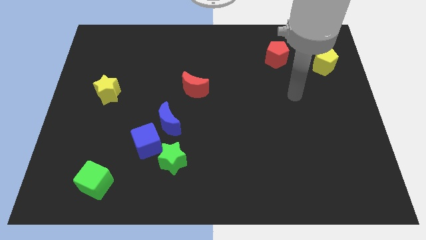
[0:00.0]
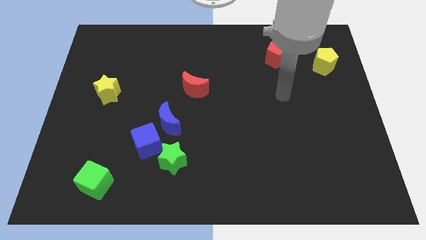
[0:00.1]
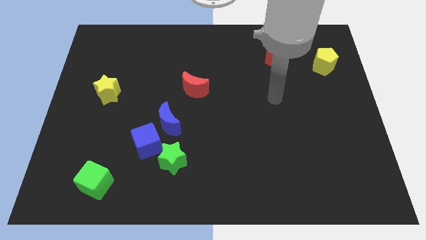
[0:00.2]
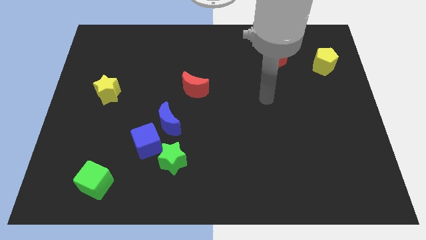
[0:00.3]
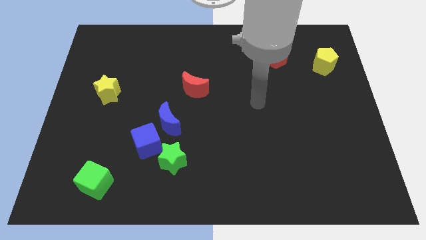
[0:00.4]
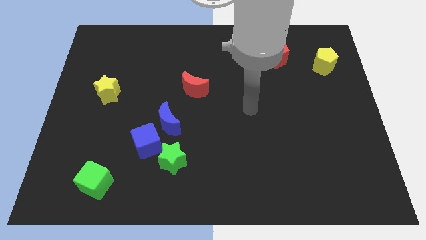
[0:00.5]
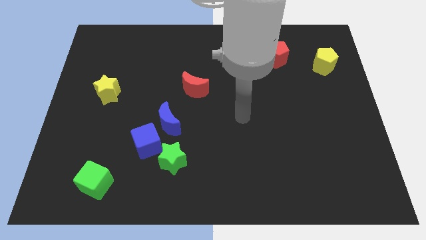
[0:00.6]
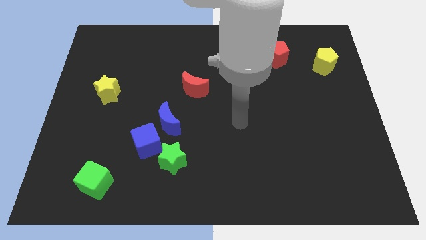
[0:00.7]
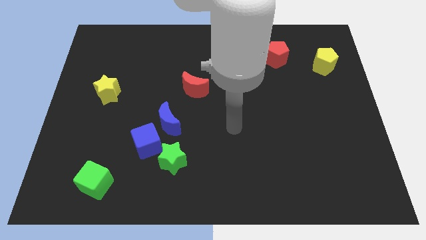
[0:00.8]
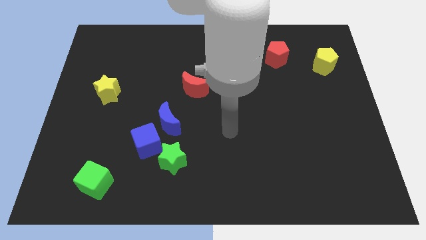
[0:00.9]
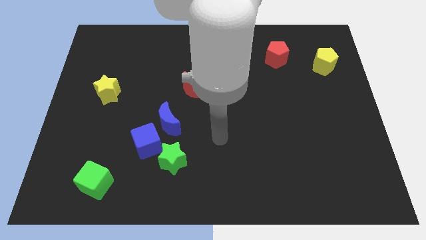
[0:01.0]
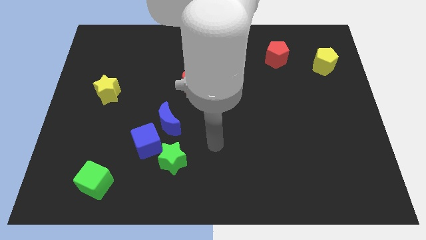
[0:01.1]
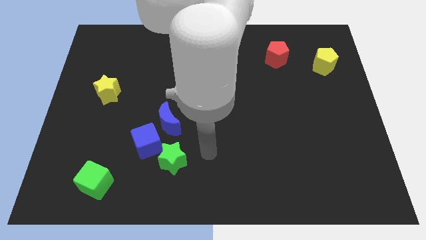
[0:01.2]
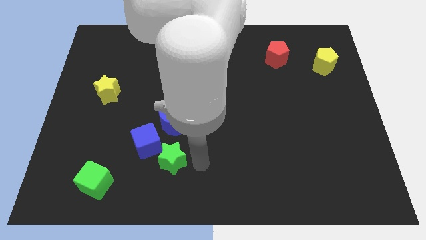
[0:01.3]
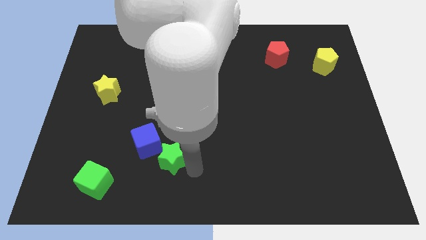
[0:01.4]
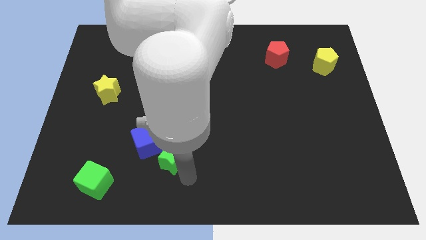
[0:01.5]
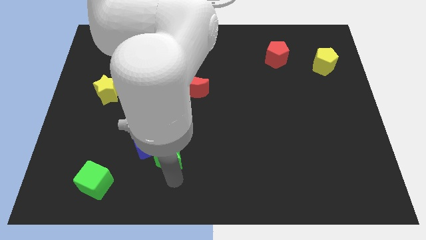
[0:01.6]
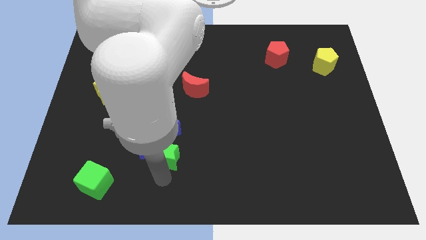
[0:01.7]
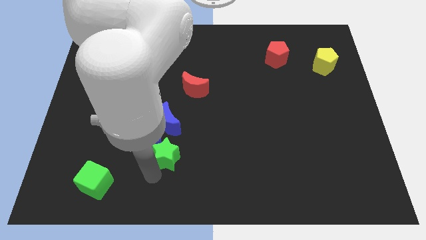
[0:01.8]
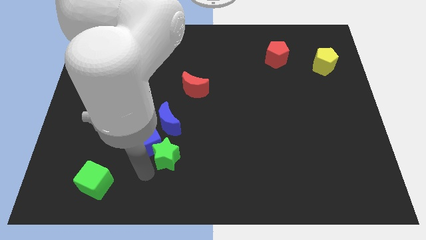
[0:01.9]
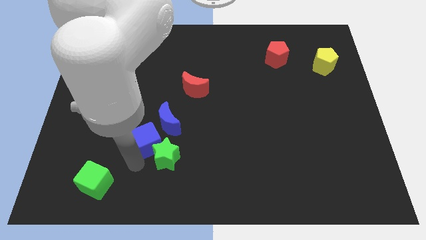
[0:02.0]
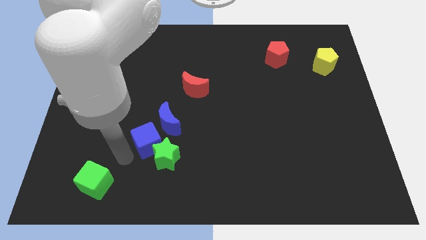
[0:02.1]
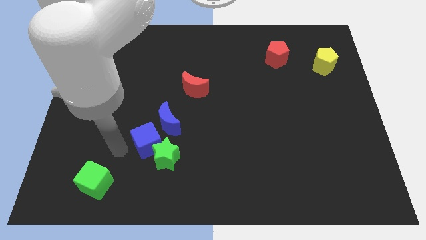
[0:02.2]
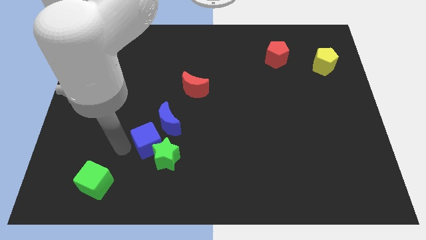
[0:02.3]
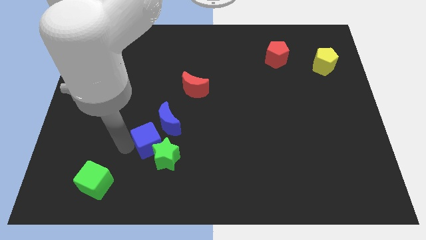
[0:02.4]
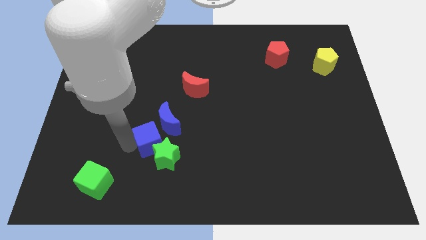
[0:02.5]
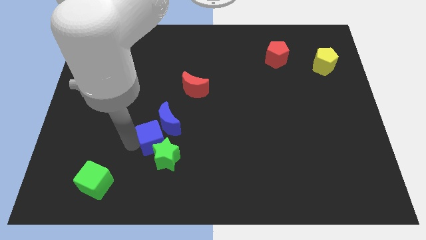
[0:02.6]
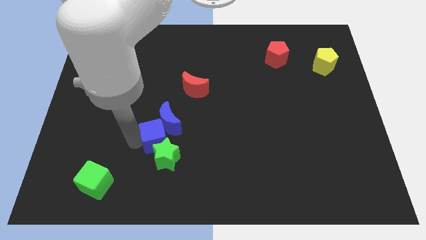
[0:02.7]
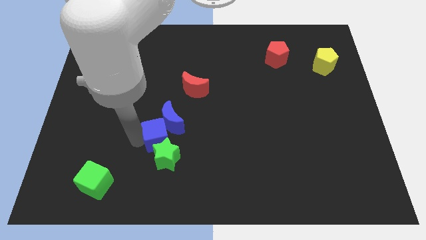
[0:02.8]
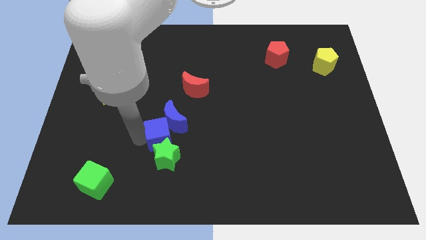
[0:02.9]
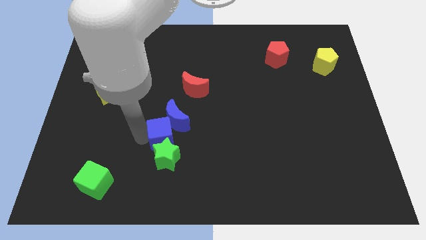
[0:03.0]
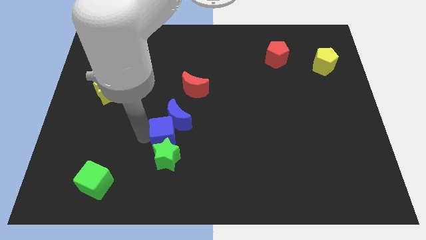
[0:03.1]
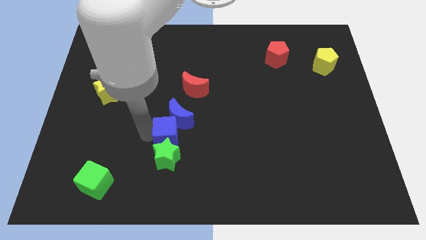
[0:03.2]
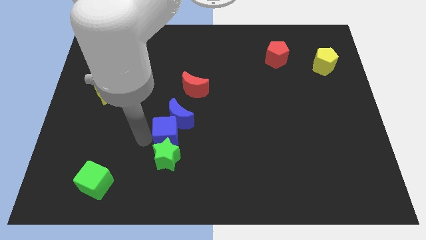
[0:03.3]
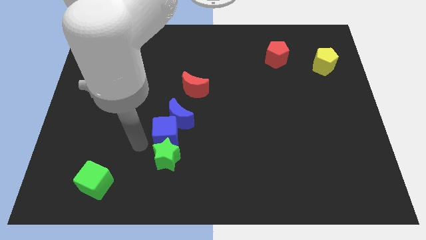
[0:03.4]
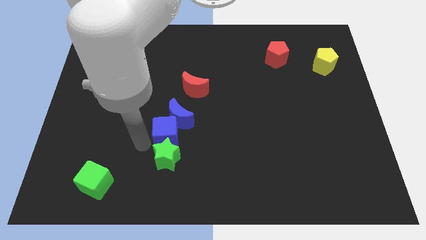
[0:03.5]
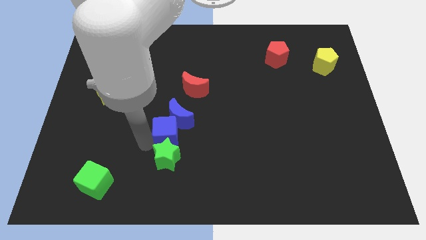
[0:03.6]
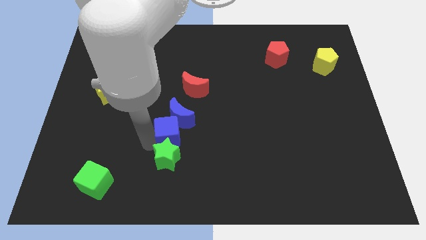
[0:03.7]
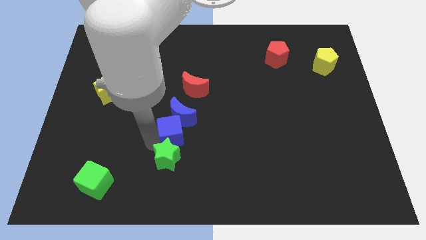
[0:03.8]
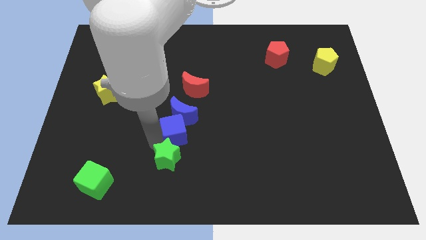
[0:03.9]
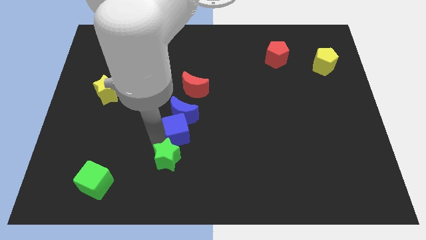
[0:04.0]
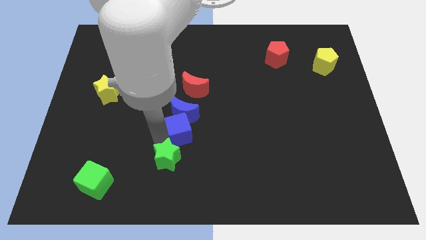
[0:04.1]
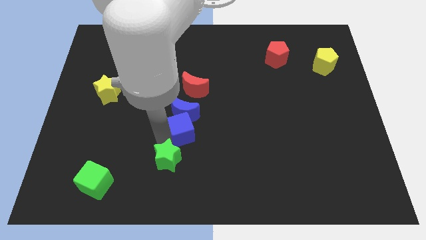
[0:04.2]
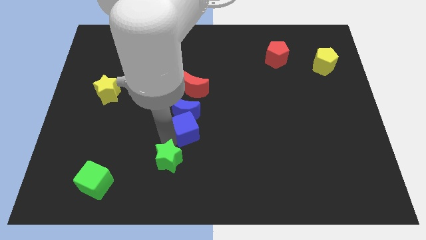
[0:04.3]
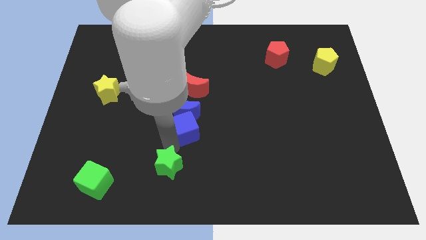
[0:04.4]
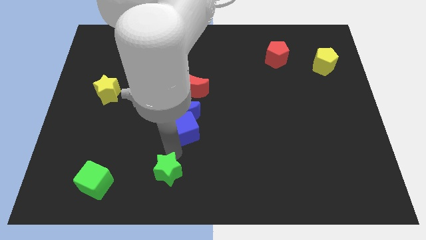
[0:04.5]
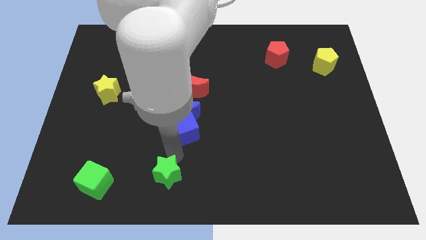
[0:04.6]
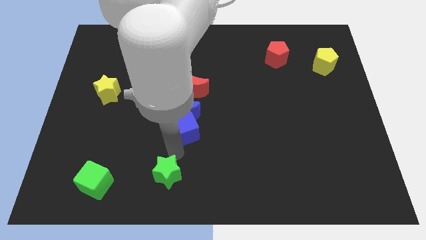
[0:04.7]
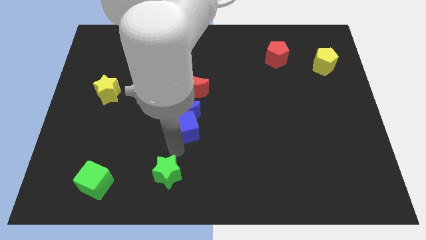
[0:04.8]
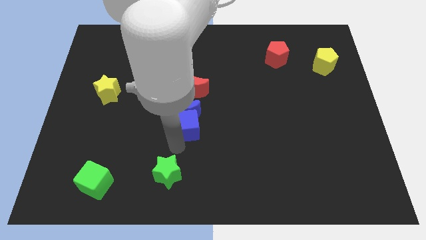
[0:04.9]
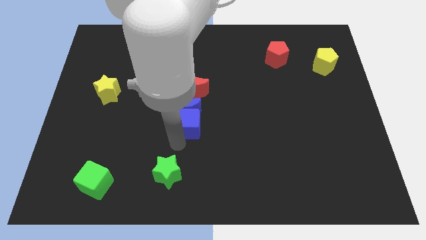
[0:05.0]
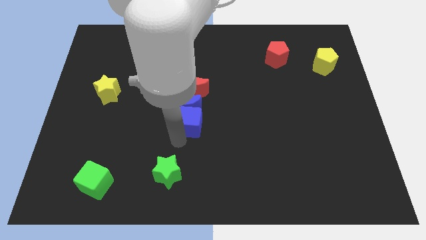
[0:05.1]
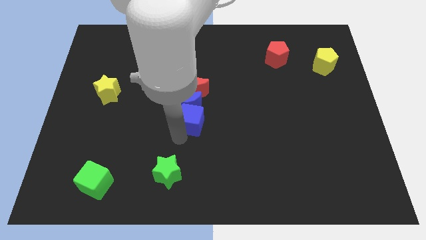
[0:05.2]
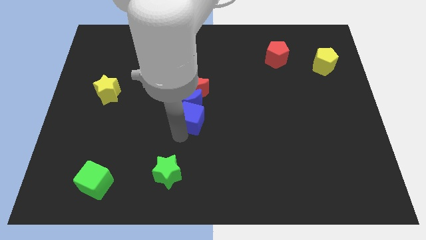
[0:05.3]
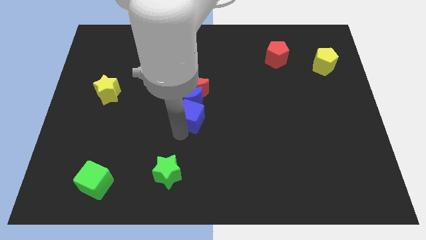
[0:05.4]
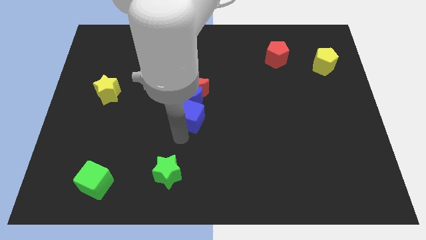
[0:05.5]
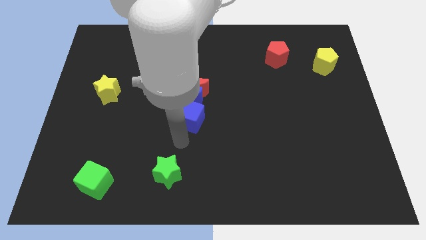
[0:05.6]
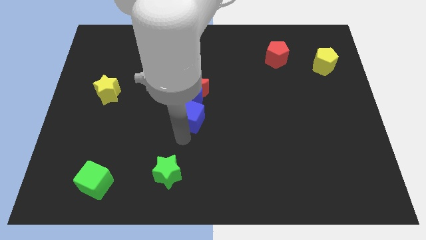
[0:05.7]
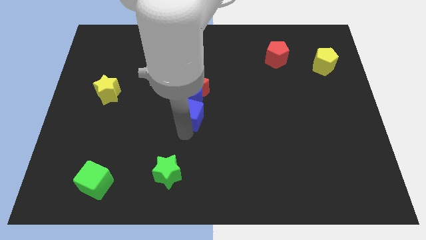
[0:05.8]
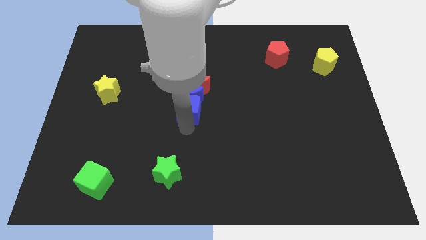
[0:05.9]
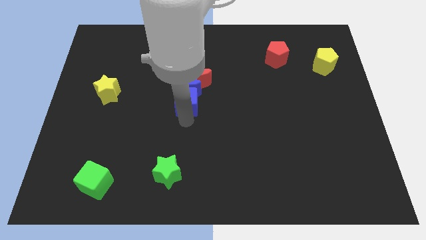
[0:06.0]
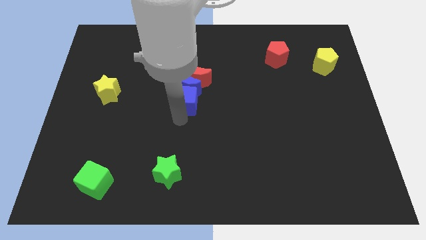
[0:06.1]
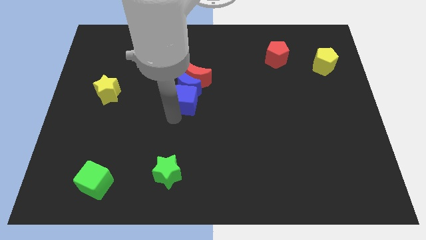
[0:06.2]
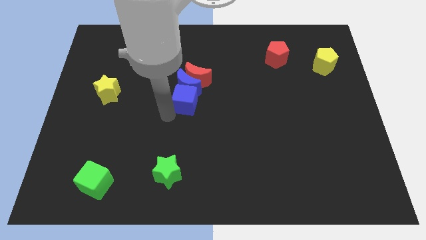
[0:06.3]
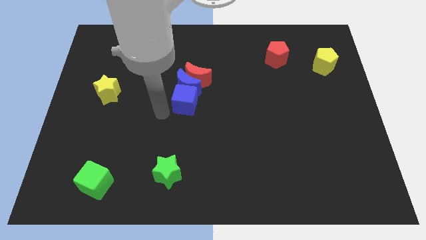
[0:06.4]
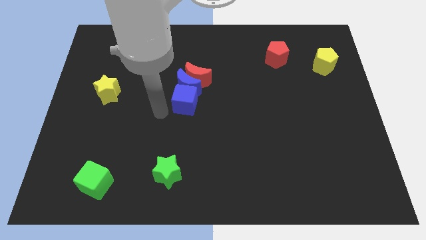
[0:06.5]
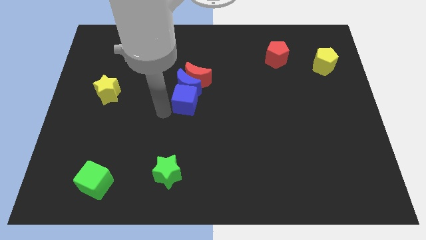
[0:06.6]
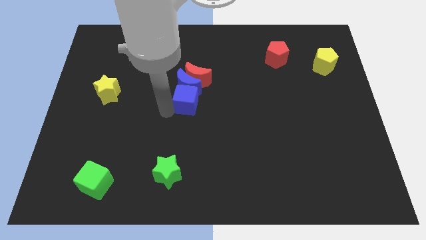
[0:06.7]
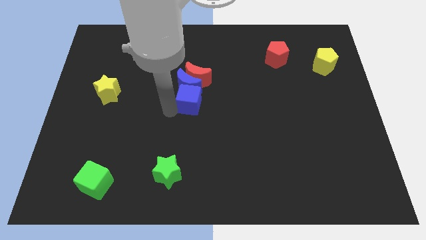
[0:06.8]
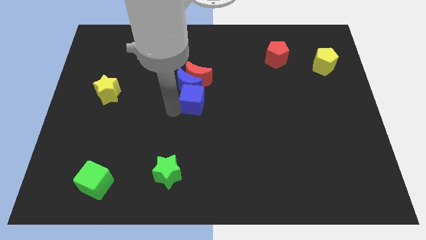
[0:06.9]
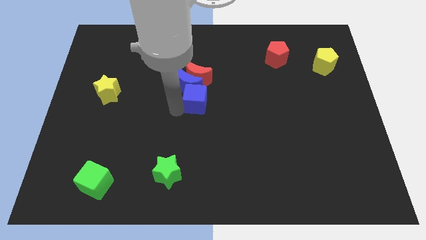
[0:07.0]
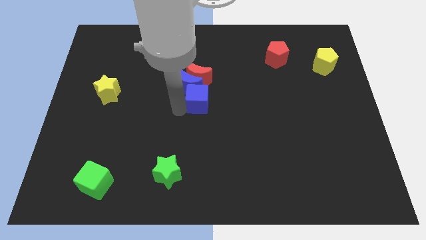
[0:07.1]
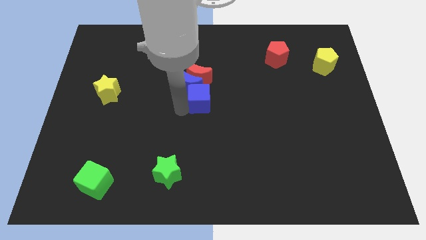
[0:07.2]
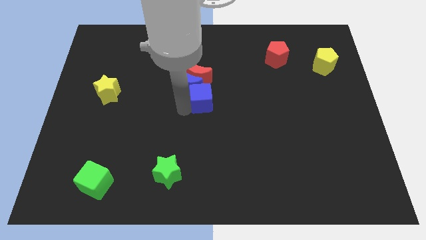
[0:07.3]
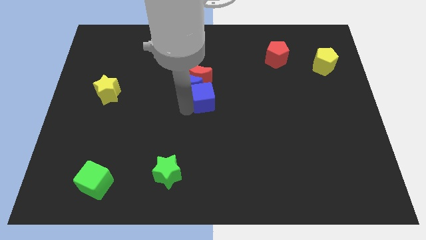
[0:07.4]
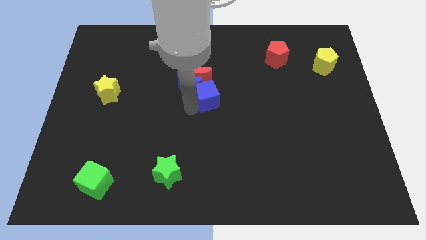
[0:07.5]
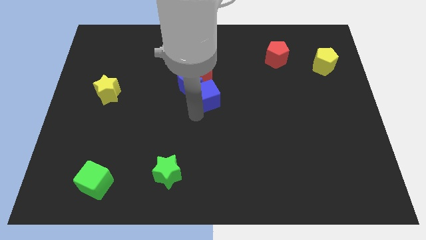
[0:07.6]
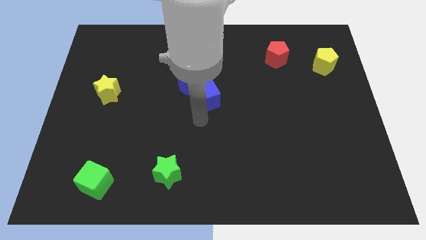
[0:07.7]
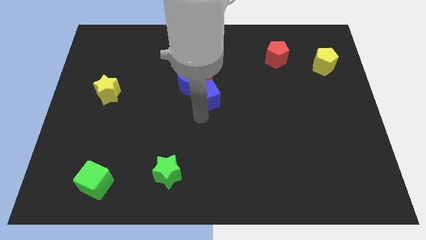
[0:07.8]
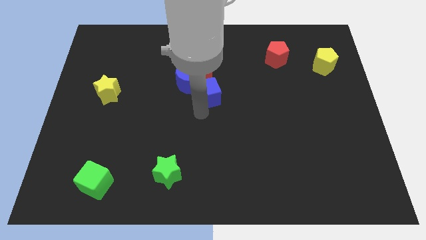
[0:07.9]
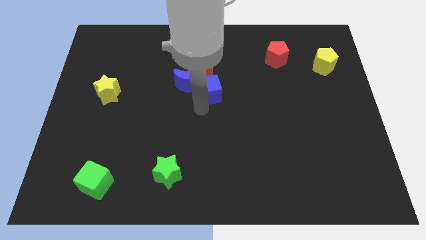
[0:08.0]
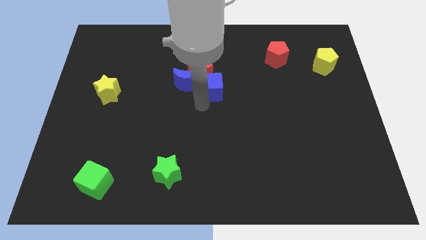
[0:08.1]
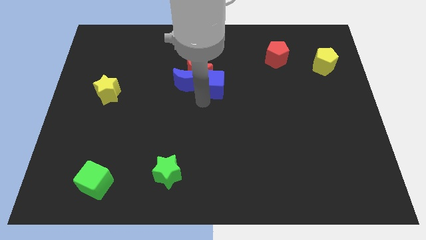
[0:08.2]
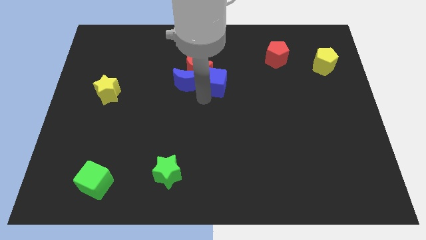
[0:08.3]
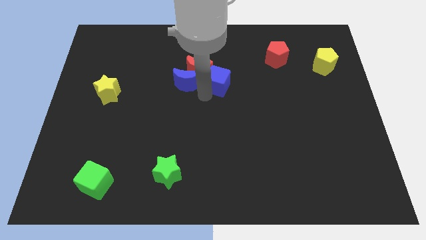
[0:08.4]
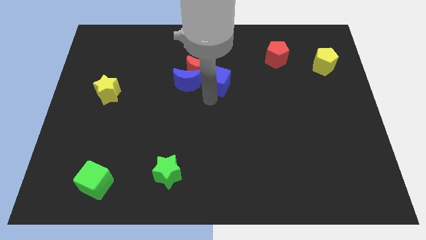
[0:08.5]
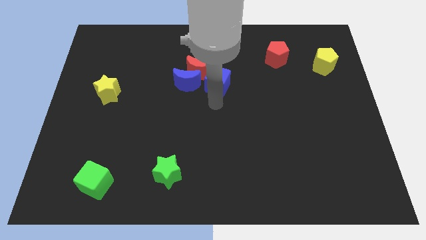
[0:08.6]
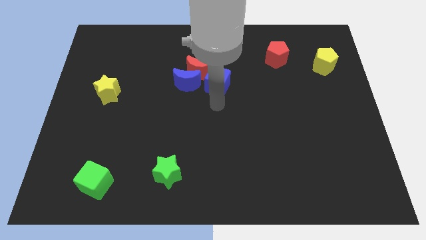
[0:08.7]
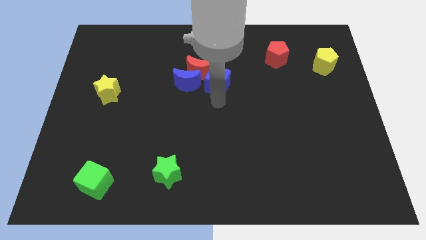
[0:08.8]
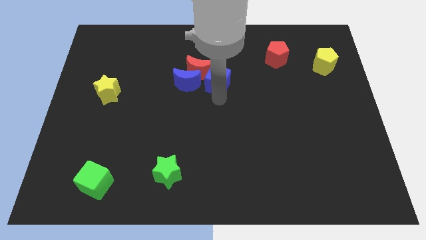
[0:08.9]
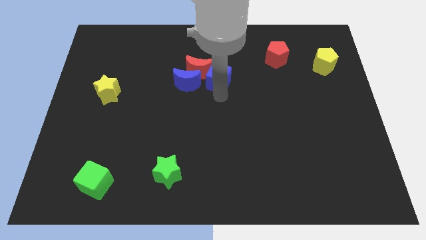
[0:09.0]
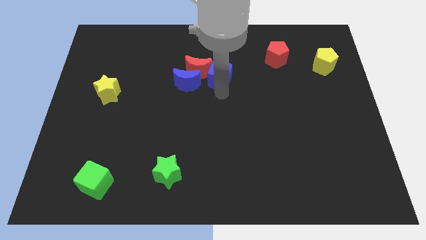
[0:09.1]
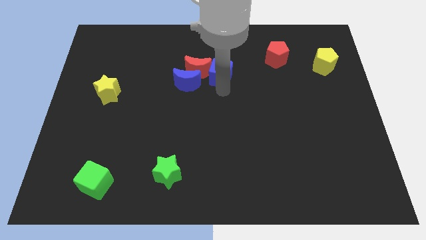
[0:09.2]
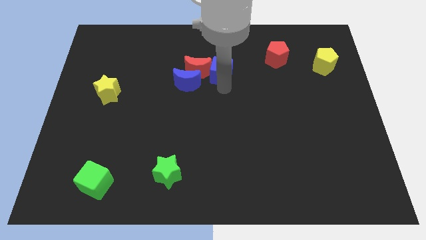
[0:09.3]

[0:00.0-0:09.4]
slide the blue cube to the top right of the red moon
